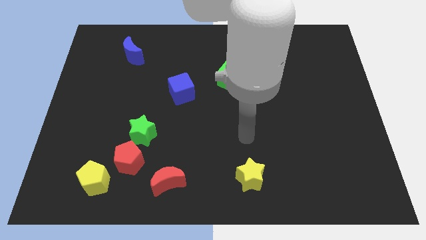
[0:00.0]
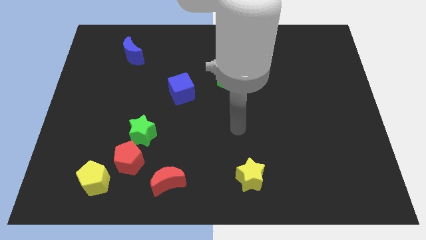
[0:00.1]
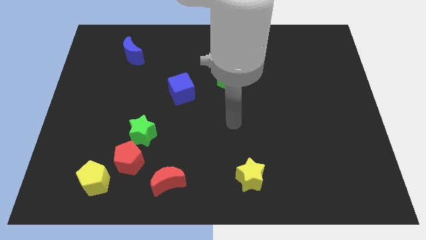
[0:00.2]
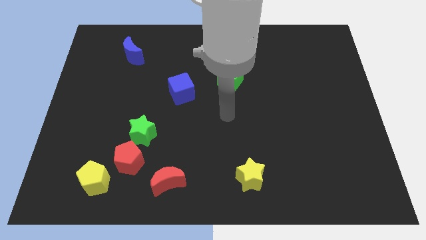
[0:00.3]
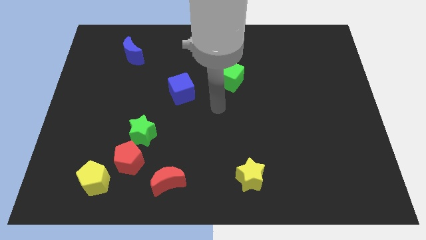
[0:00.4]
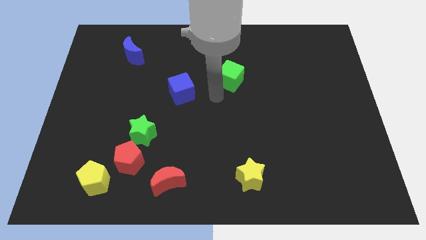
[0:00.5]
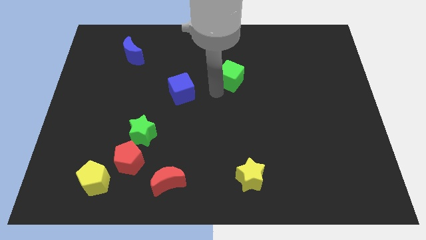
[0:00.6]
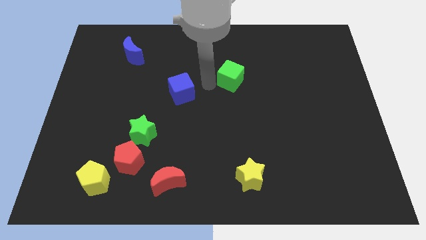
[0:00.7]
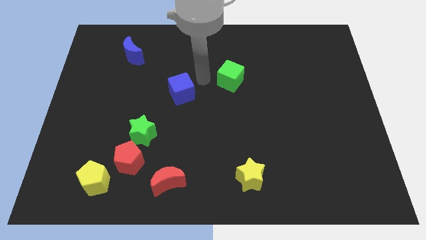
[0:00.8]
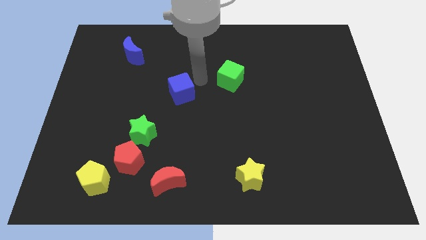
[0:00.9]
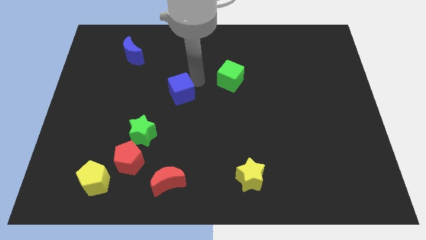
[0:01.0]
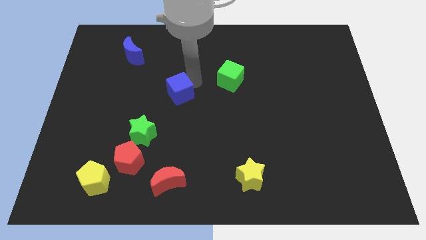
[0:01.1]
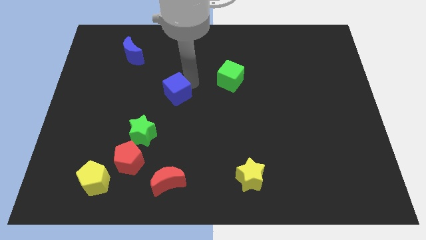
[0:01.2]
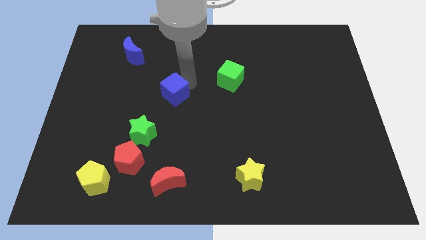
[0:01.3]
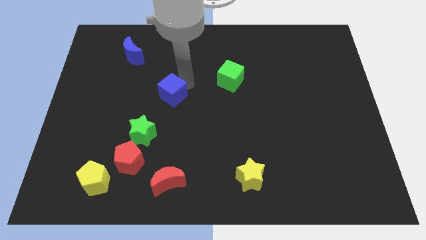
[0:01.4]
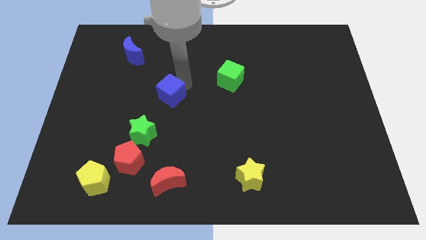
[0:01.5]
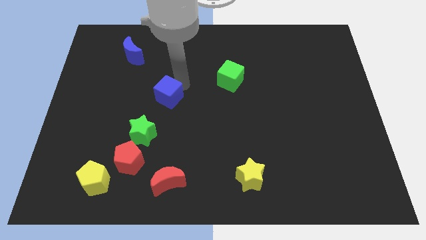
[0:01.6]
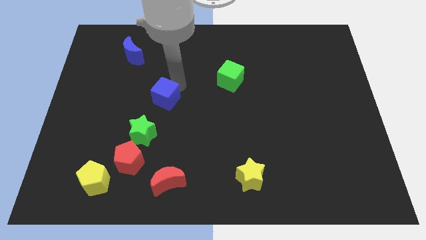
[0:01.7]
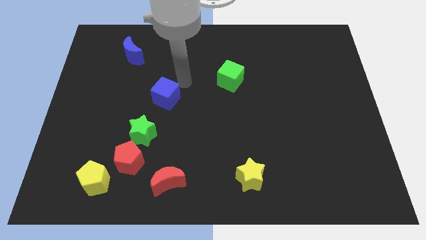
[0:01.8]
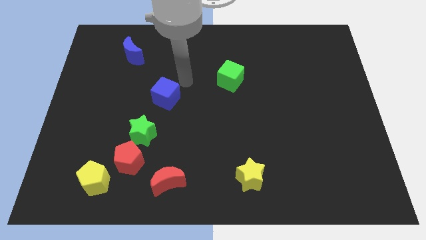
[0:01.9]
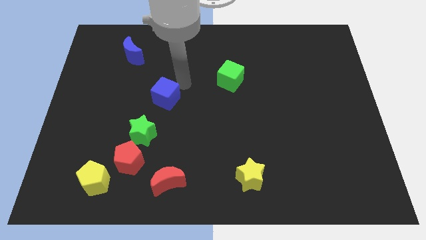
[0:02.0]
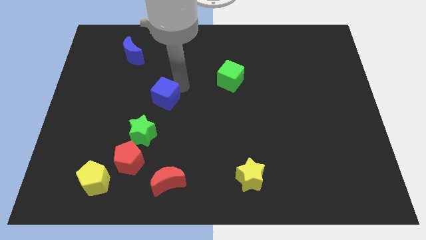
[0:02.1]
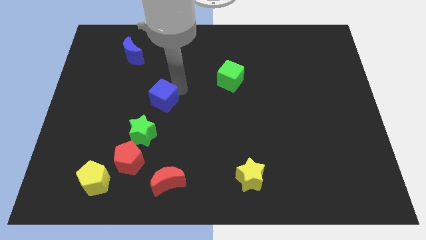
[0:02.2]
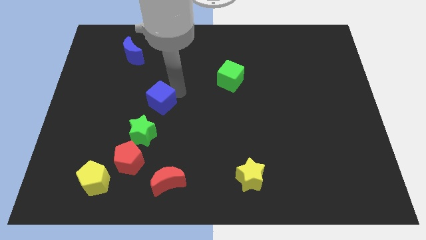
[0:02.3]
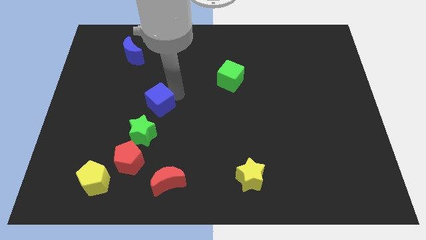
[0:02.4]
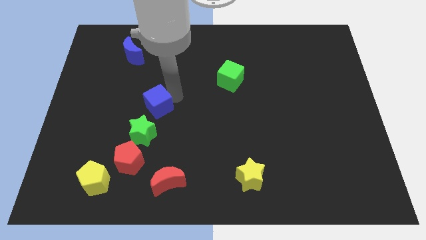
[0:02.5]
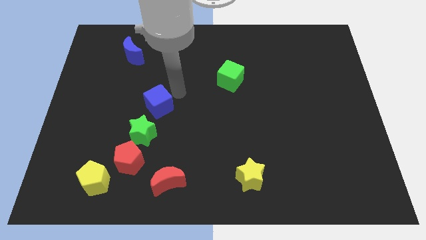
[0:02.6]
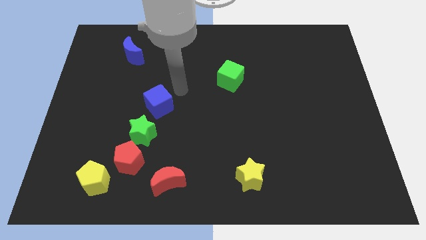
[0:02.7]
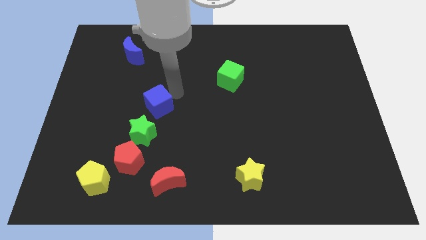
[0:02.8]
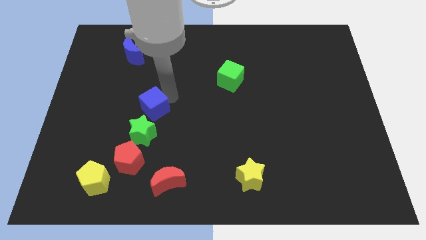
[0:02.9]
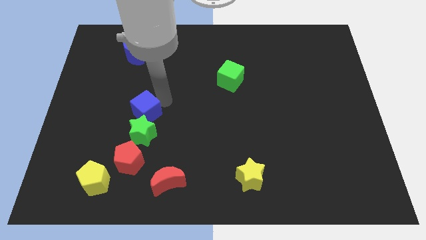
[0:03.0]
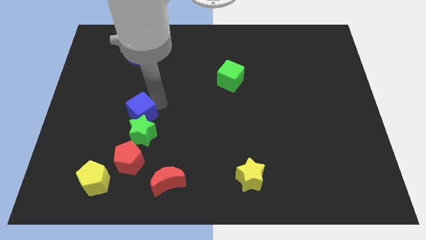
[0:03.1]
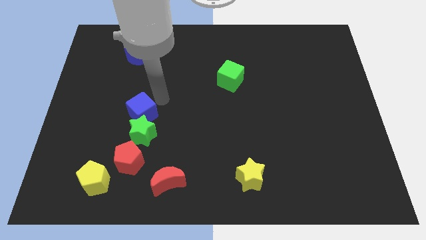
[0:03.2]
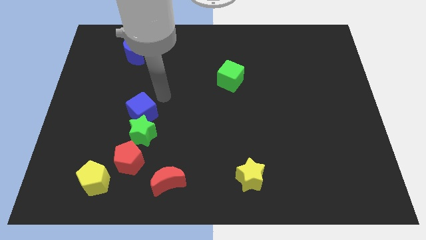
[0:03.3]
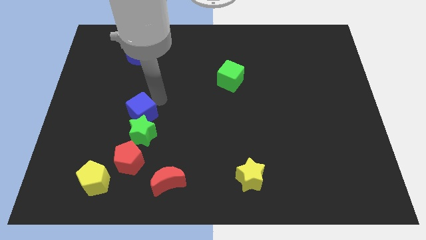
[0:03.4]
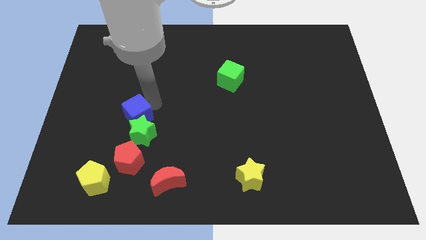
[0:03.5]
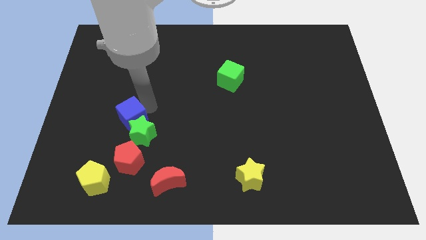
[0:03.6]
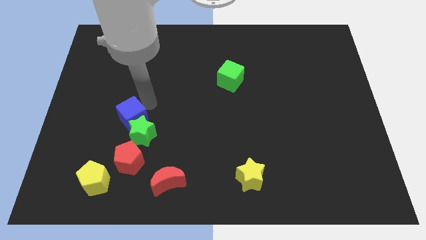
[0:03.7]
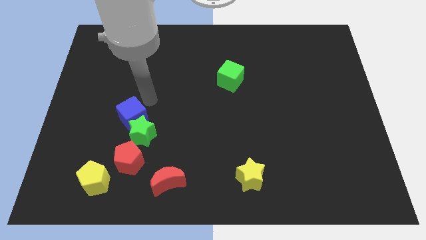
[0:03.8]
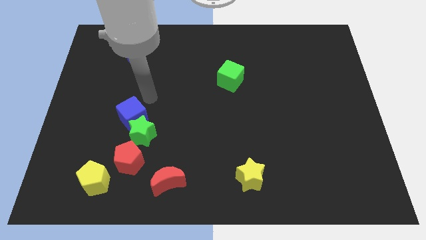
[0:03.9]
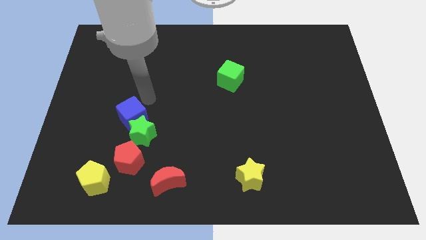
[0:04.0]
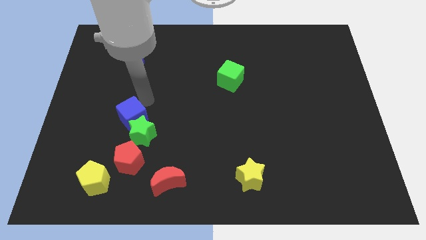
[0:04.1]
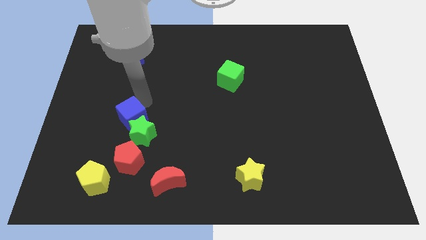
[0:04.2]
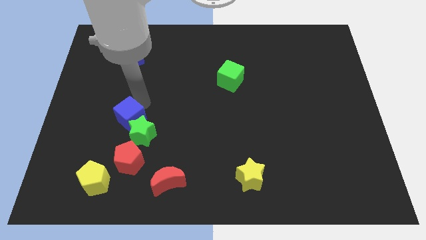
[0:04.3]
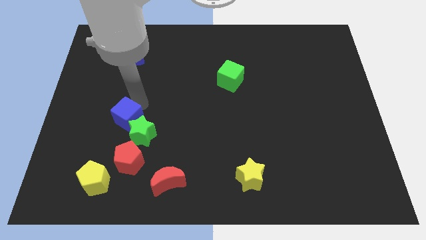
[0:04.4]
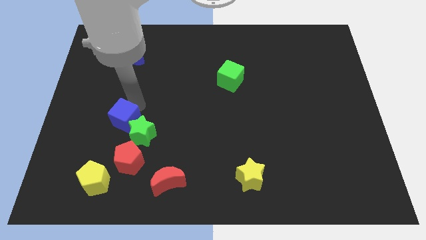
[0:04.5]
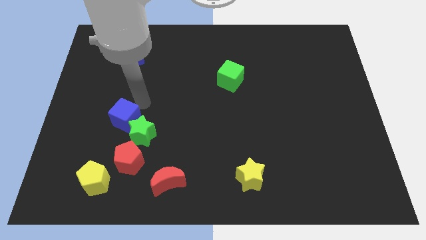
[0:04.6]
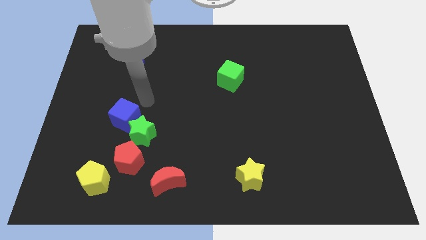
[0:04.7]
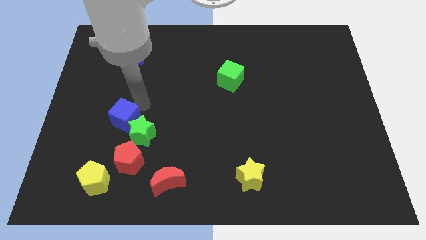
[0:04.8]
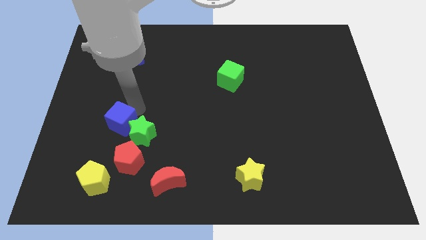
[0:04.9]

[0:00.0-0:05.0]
push the blue cube to the top side of the yellow pentagon

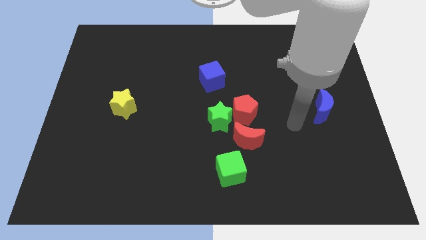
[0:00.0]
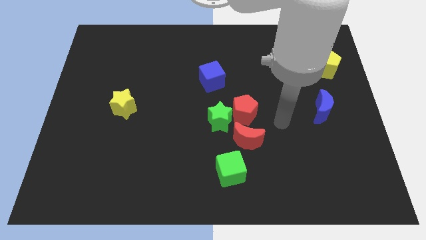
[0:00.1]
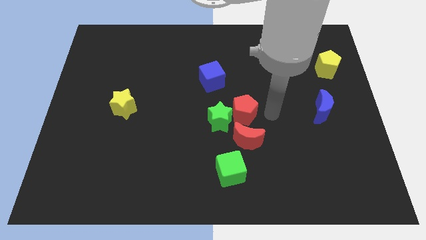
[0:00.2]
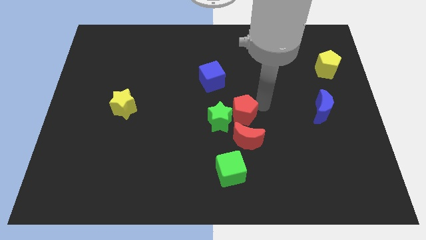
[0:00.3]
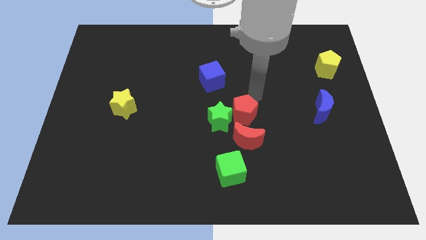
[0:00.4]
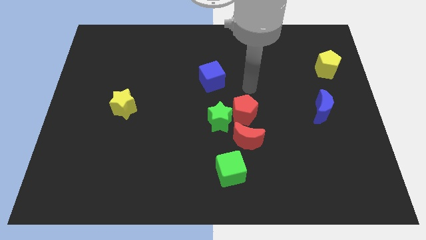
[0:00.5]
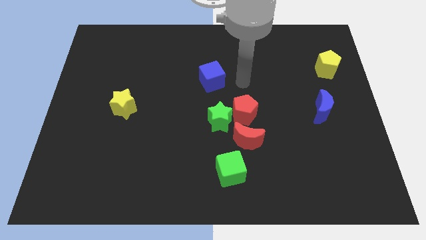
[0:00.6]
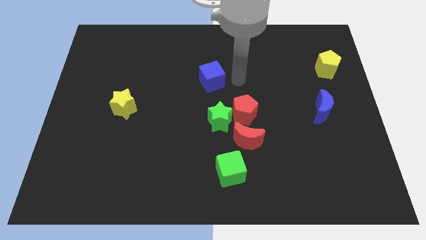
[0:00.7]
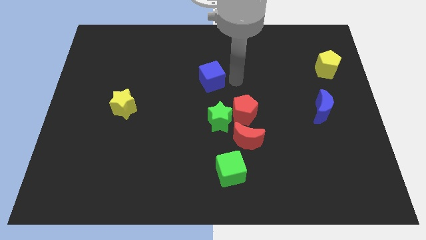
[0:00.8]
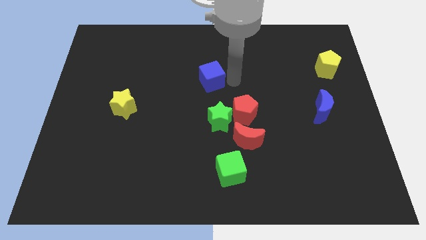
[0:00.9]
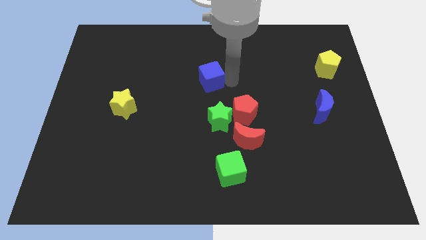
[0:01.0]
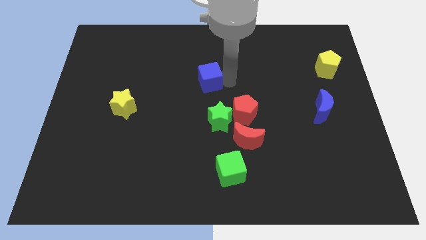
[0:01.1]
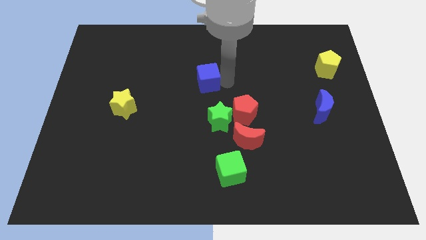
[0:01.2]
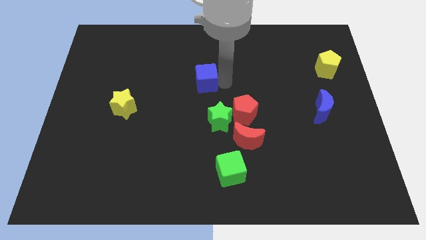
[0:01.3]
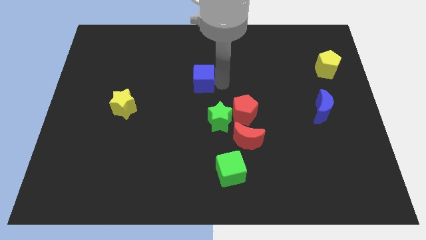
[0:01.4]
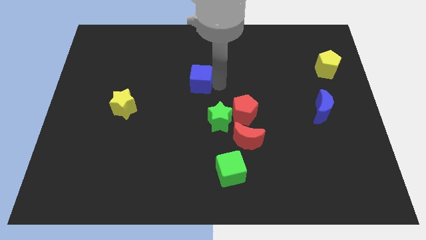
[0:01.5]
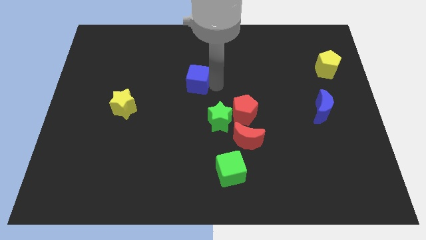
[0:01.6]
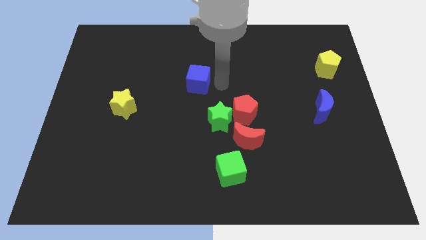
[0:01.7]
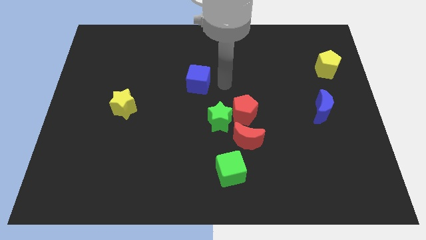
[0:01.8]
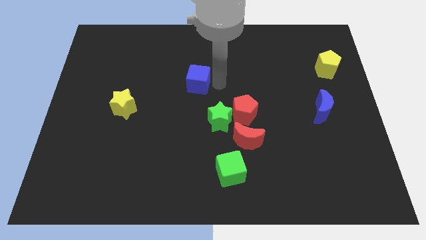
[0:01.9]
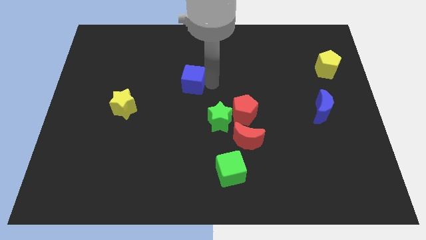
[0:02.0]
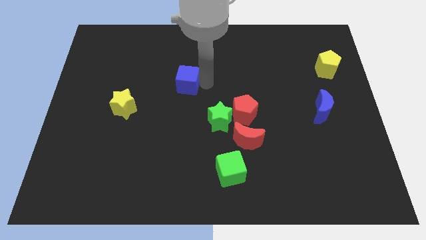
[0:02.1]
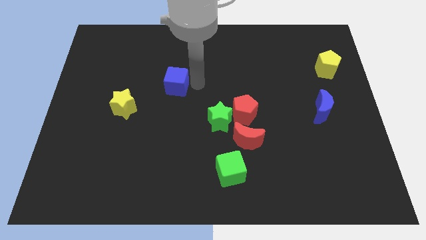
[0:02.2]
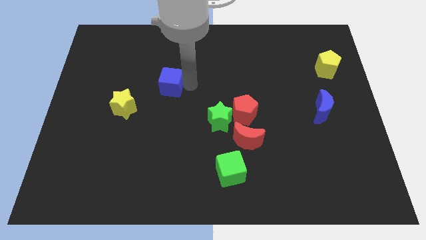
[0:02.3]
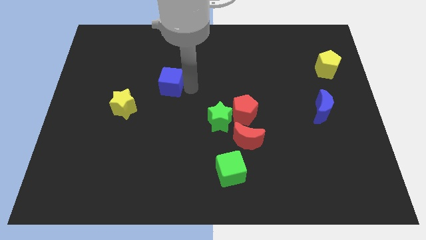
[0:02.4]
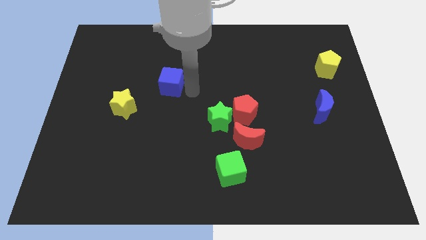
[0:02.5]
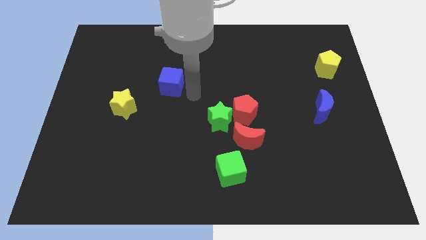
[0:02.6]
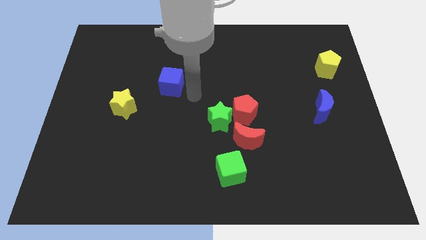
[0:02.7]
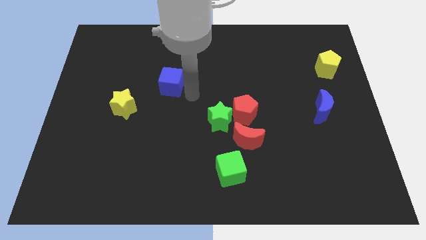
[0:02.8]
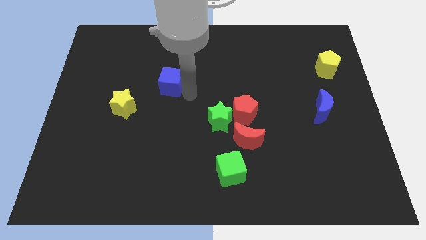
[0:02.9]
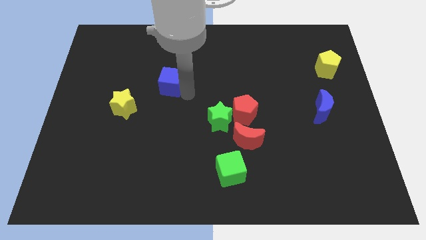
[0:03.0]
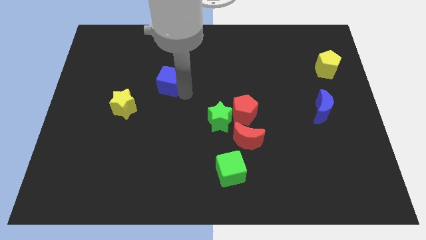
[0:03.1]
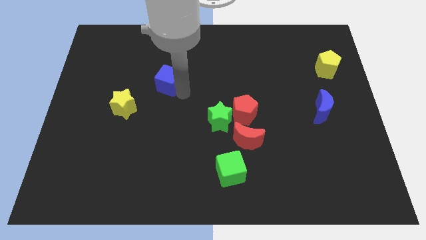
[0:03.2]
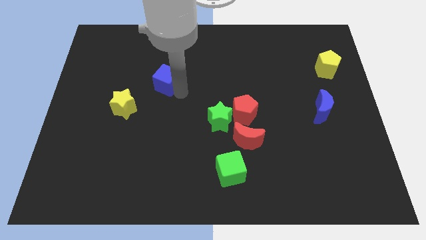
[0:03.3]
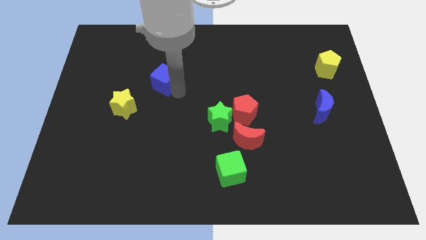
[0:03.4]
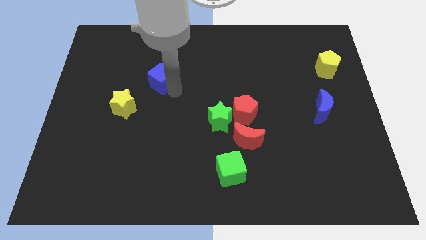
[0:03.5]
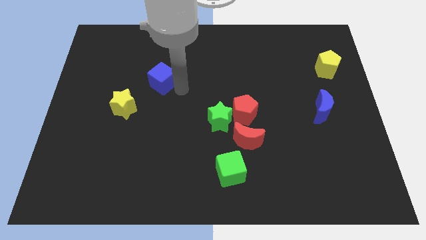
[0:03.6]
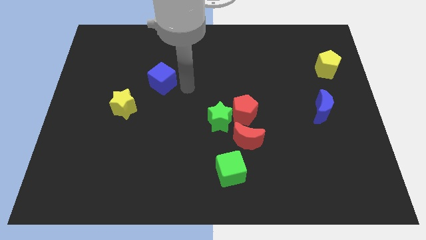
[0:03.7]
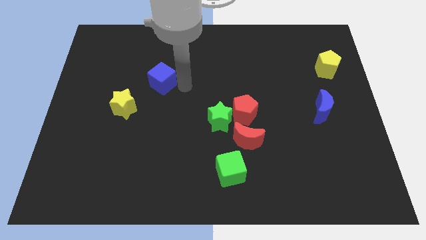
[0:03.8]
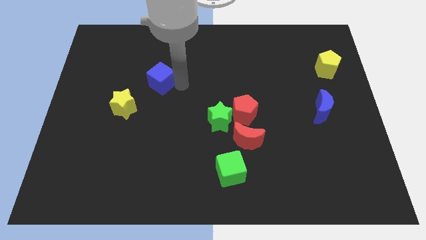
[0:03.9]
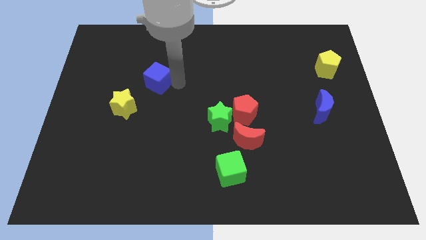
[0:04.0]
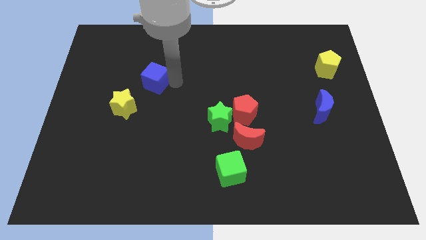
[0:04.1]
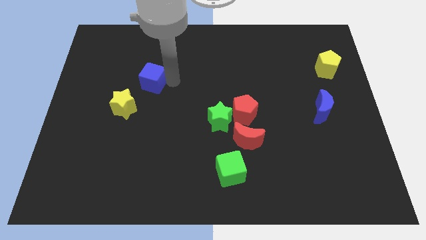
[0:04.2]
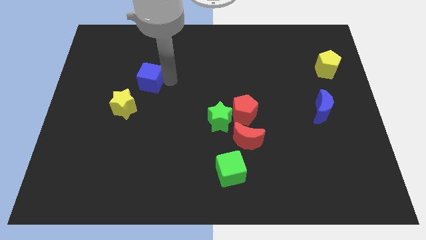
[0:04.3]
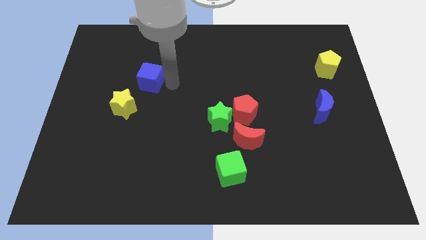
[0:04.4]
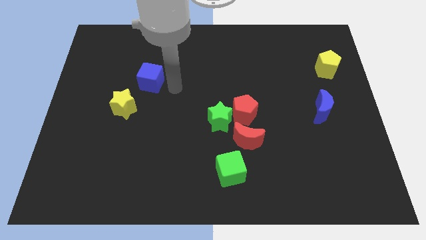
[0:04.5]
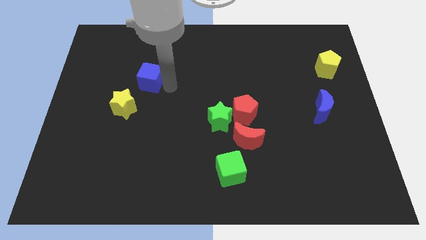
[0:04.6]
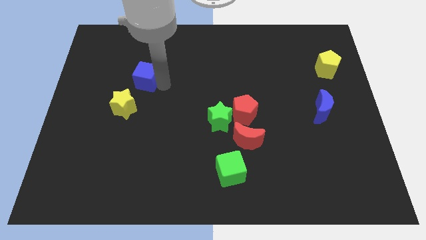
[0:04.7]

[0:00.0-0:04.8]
push the blue cube to the top of the yellow star
